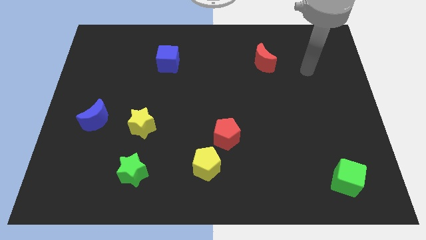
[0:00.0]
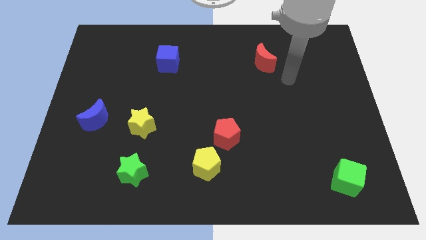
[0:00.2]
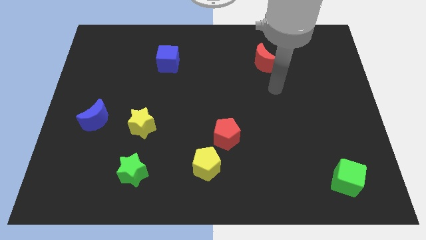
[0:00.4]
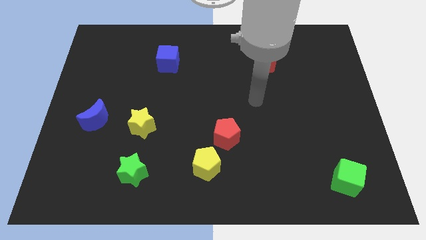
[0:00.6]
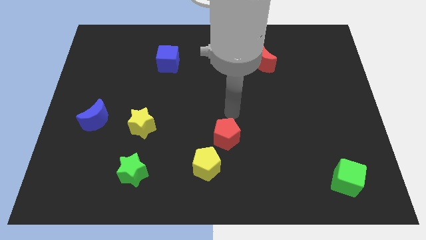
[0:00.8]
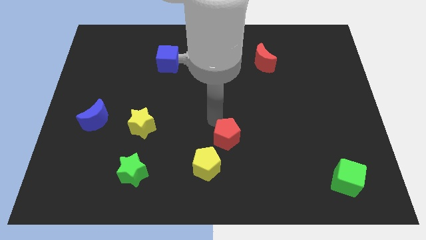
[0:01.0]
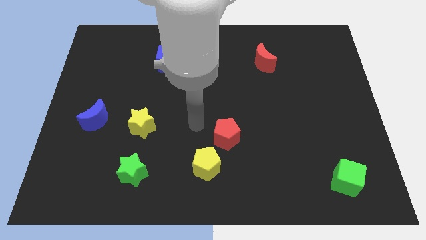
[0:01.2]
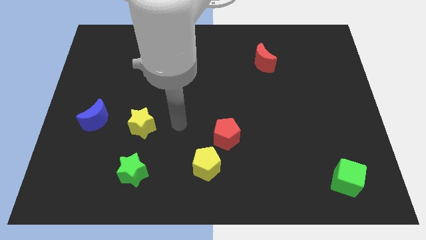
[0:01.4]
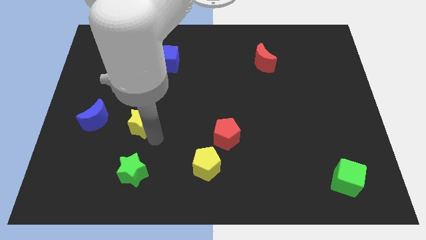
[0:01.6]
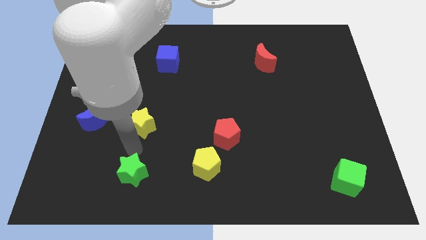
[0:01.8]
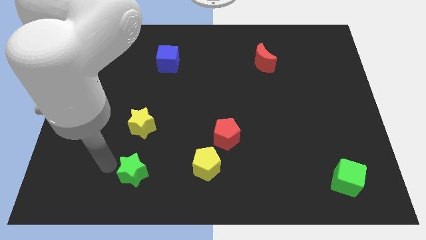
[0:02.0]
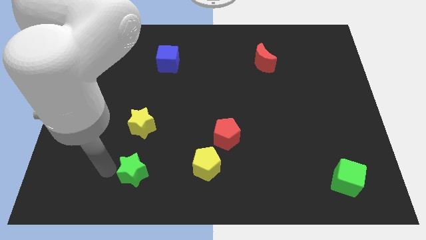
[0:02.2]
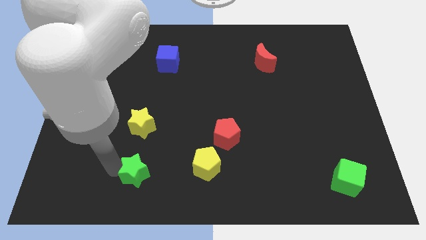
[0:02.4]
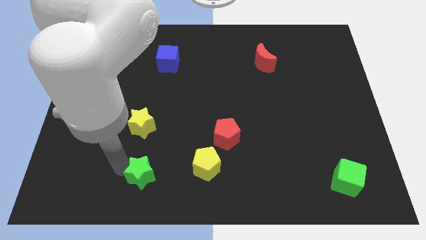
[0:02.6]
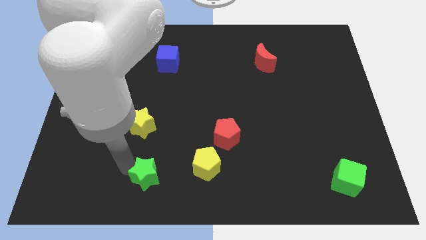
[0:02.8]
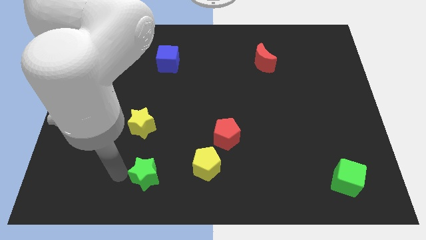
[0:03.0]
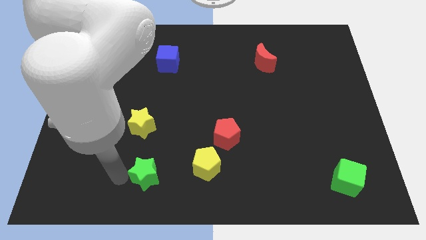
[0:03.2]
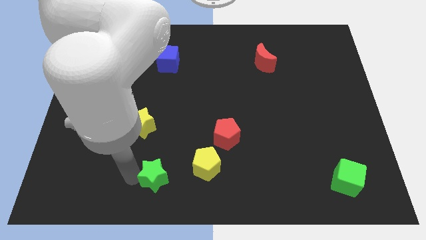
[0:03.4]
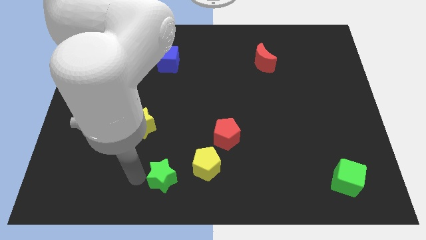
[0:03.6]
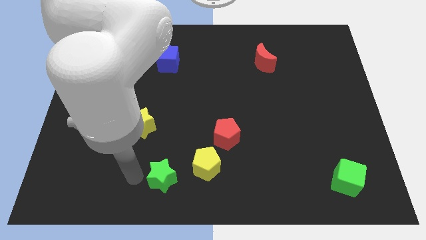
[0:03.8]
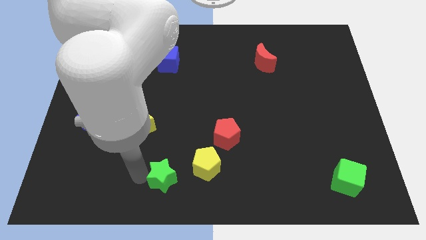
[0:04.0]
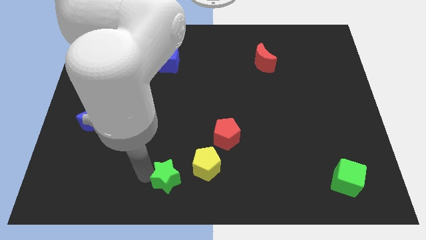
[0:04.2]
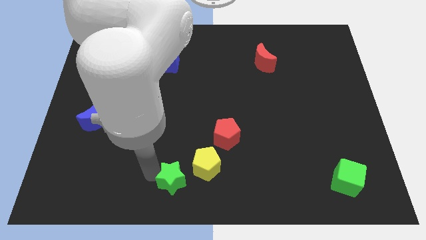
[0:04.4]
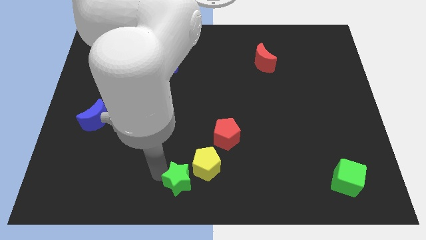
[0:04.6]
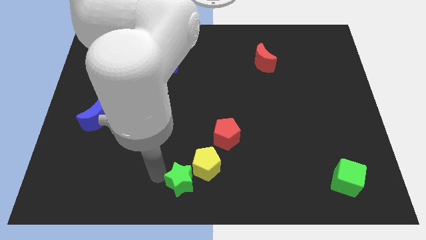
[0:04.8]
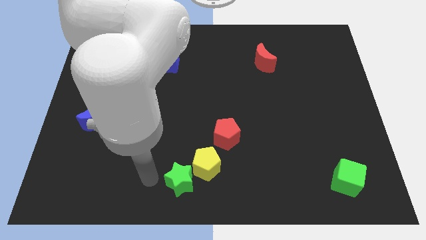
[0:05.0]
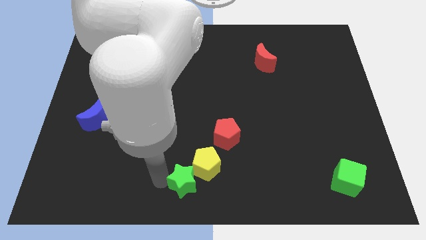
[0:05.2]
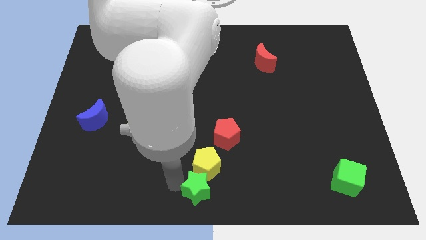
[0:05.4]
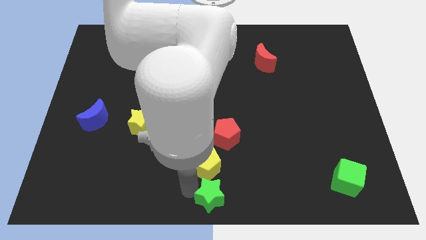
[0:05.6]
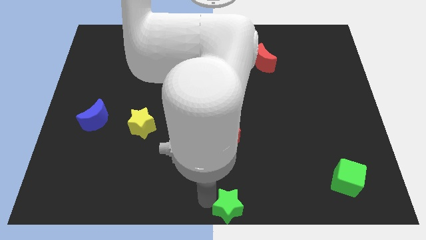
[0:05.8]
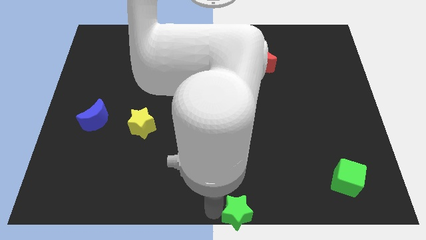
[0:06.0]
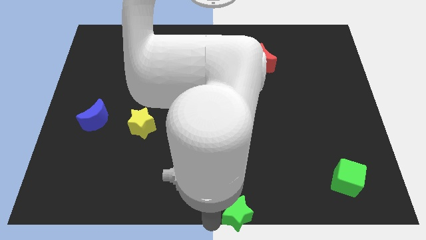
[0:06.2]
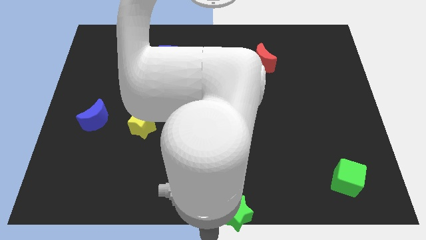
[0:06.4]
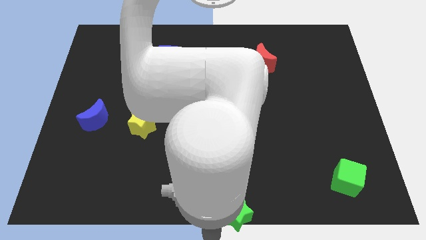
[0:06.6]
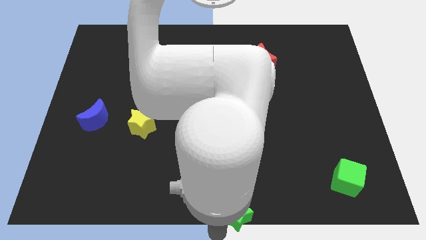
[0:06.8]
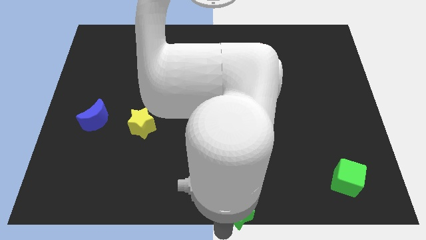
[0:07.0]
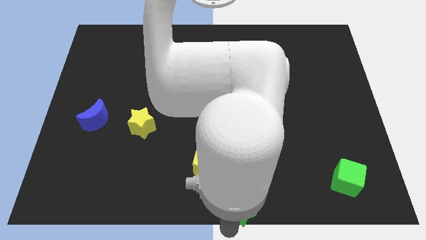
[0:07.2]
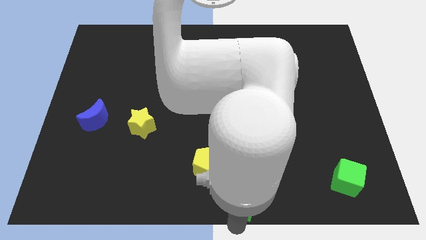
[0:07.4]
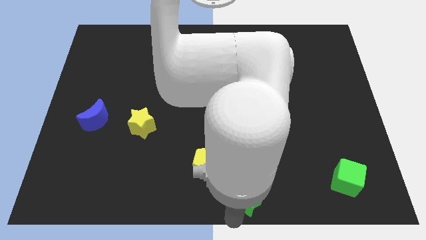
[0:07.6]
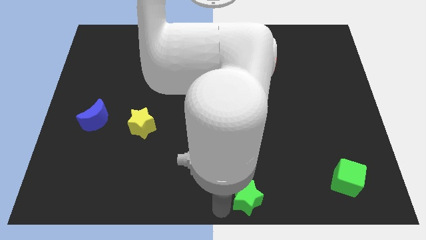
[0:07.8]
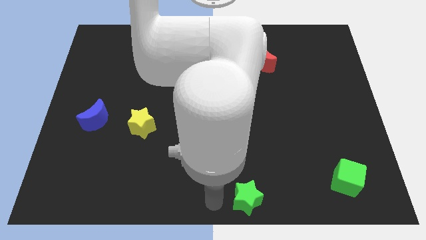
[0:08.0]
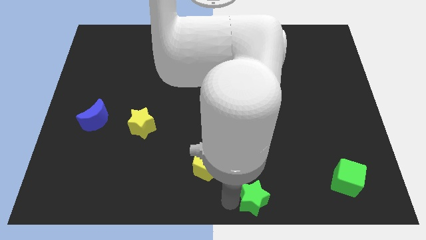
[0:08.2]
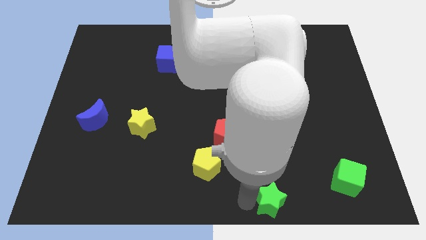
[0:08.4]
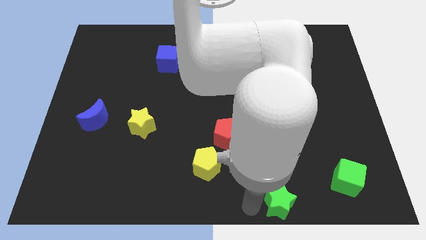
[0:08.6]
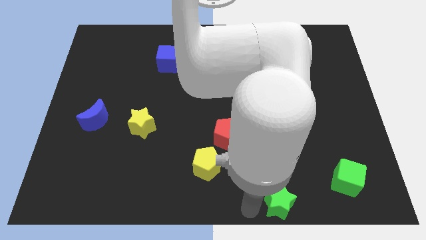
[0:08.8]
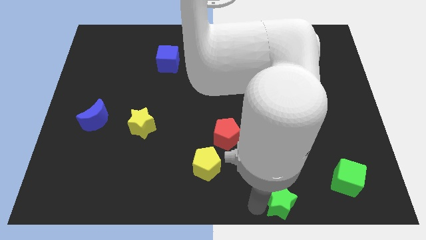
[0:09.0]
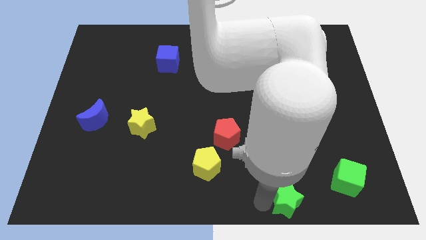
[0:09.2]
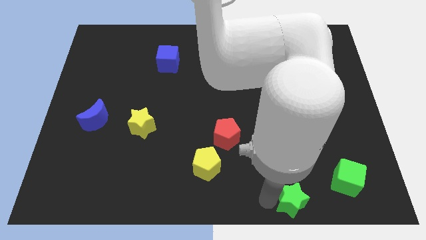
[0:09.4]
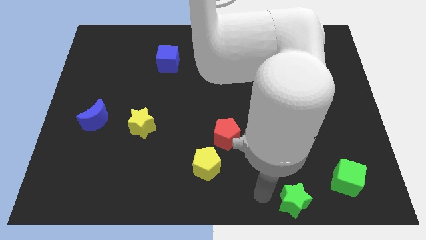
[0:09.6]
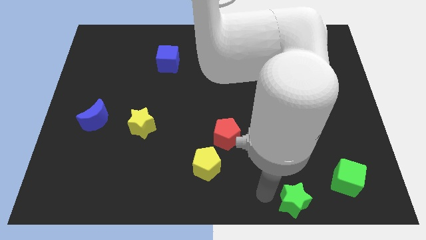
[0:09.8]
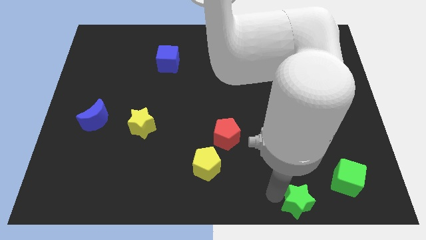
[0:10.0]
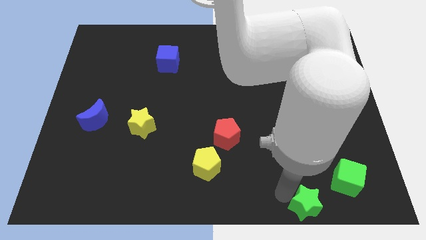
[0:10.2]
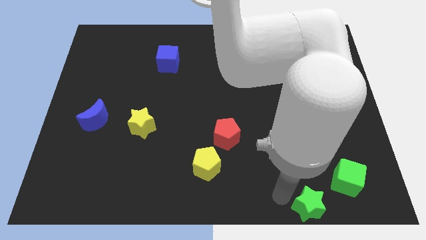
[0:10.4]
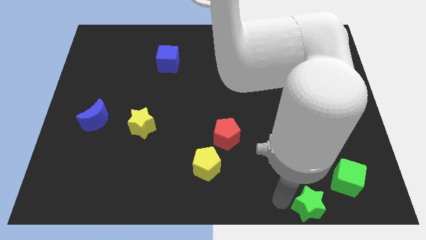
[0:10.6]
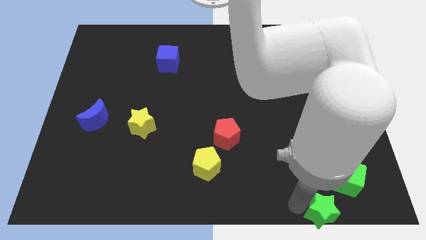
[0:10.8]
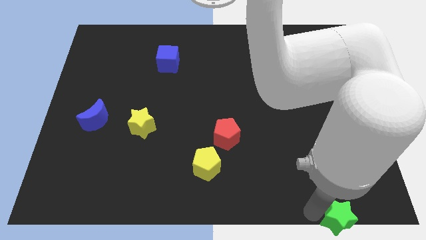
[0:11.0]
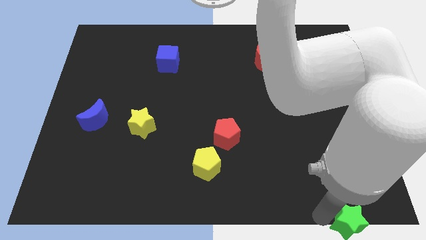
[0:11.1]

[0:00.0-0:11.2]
put the green star to the bottom right

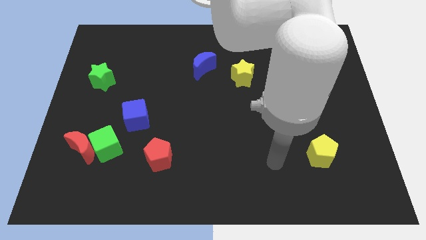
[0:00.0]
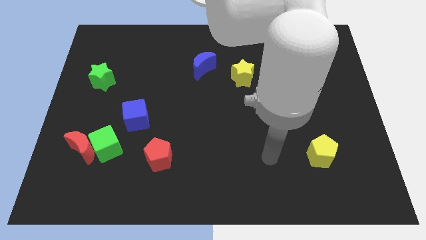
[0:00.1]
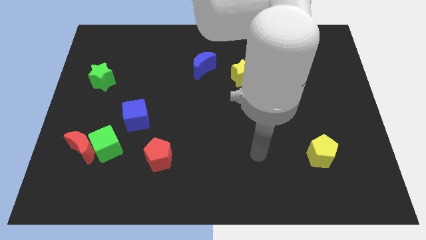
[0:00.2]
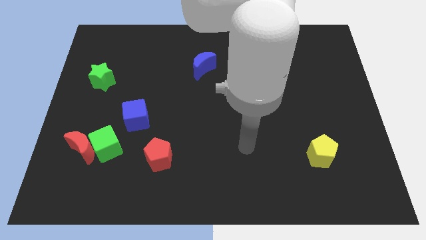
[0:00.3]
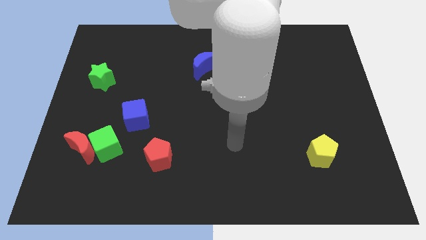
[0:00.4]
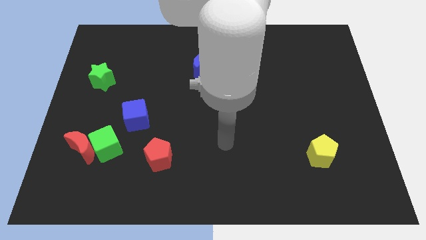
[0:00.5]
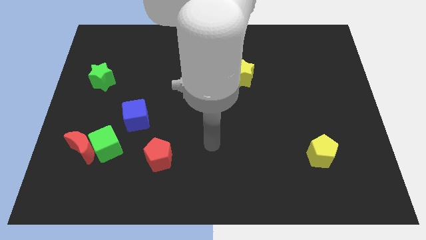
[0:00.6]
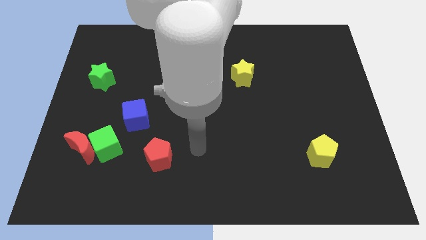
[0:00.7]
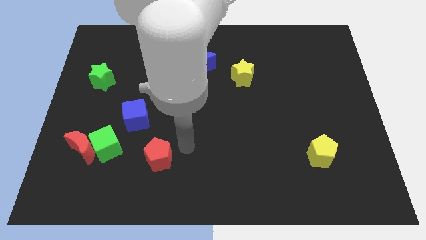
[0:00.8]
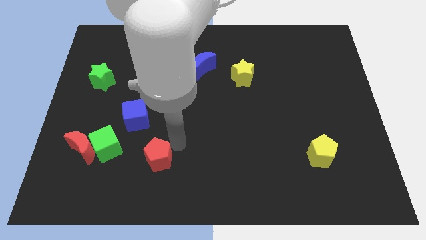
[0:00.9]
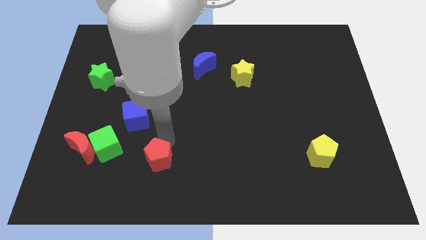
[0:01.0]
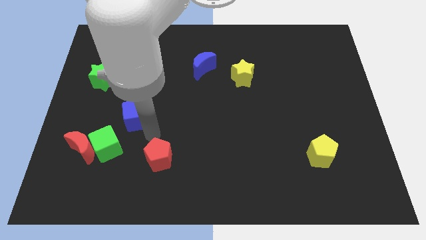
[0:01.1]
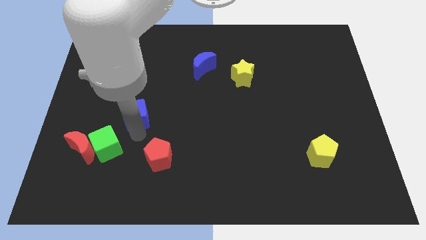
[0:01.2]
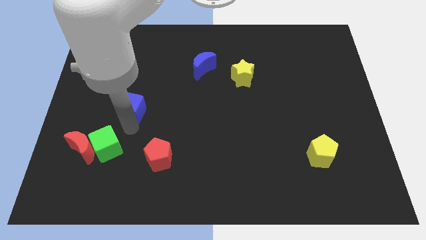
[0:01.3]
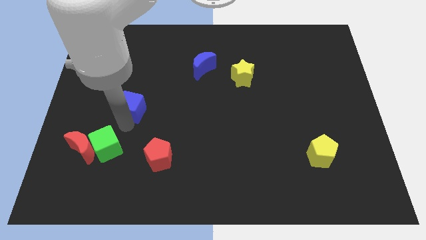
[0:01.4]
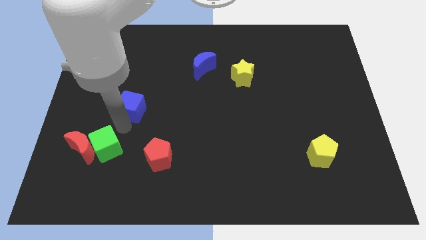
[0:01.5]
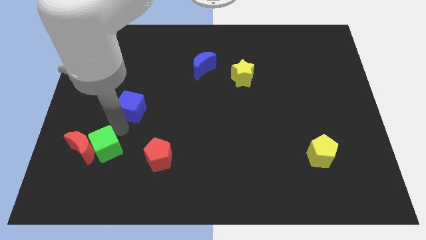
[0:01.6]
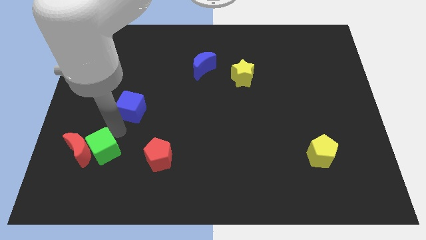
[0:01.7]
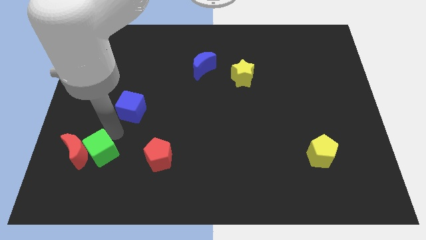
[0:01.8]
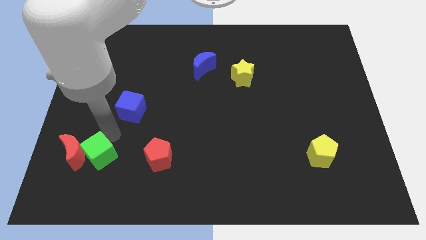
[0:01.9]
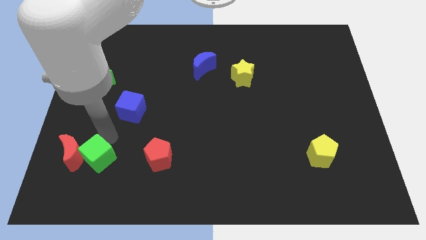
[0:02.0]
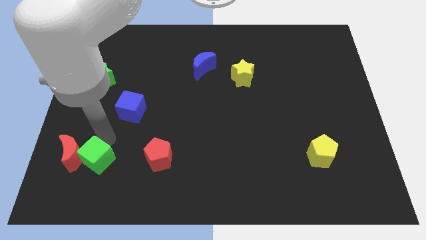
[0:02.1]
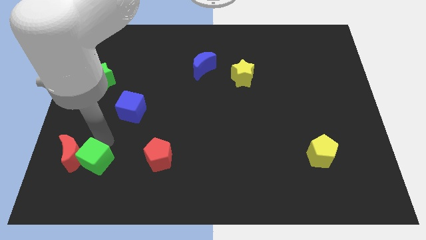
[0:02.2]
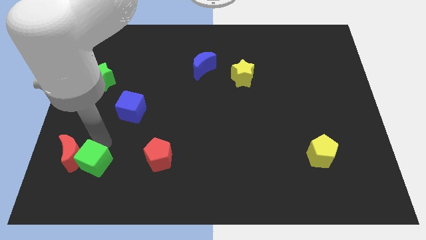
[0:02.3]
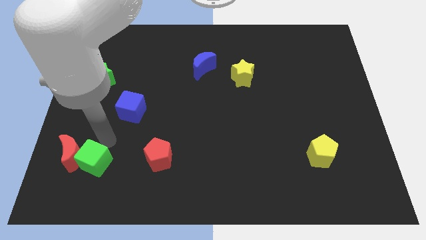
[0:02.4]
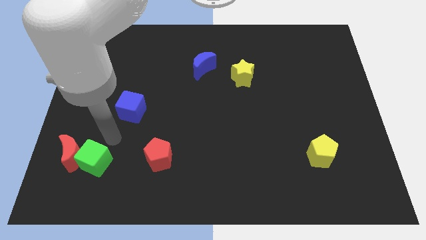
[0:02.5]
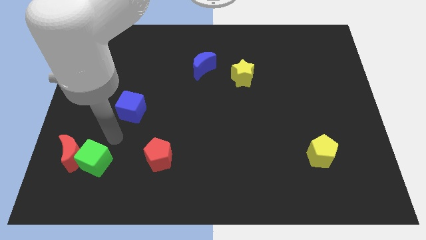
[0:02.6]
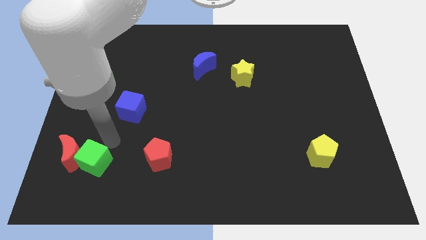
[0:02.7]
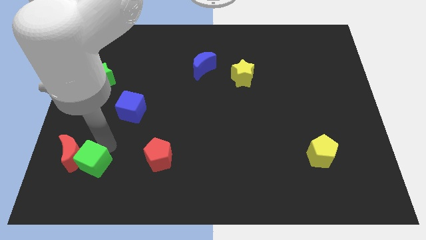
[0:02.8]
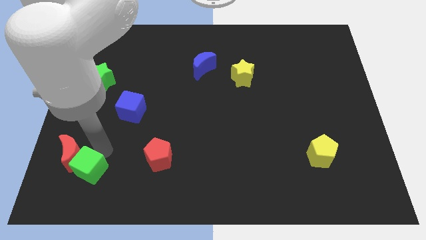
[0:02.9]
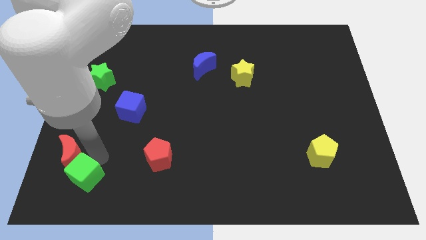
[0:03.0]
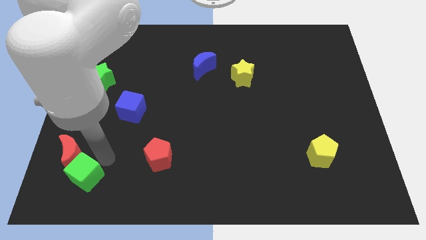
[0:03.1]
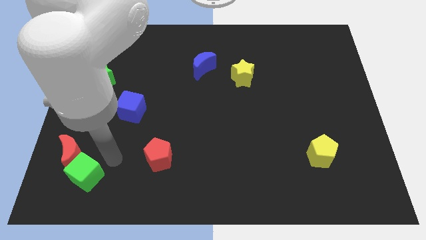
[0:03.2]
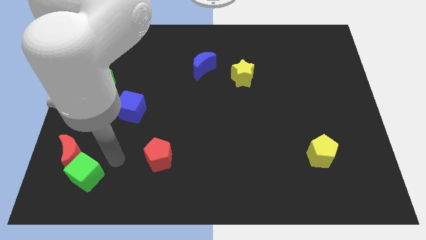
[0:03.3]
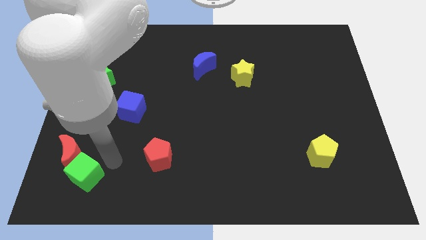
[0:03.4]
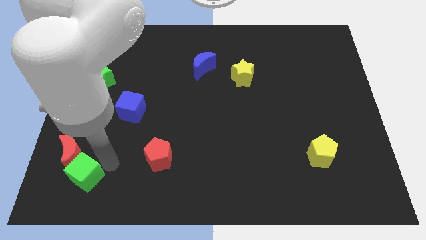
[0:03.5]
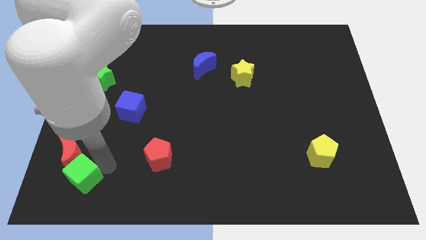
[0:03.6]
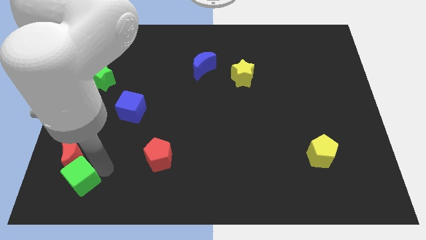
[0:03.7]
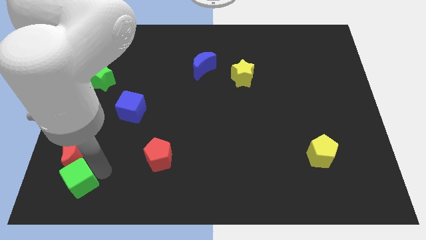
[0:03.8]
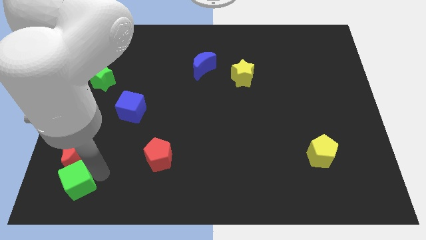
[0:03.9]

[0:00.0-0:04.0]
push the green cube to the bottom left corner
